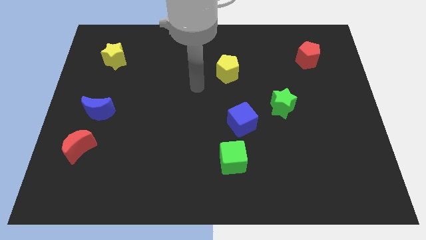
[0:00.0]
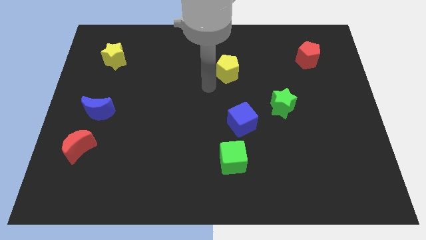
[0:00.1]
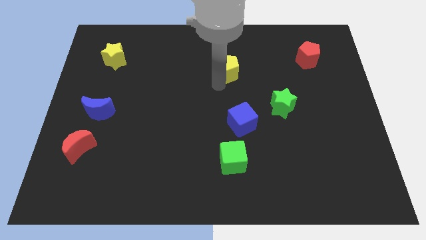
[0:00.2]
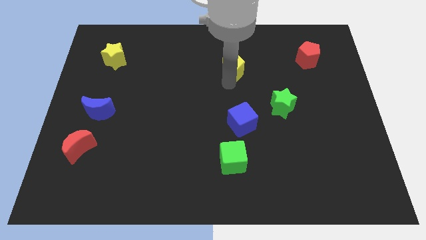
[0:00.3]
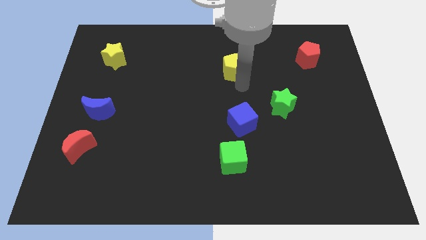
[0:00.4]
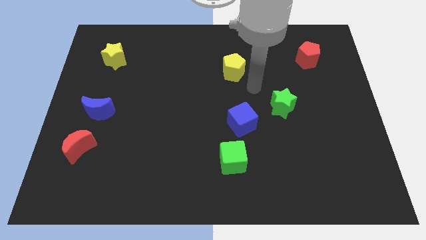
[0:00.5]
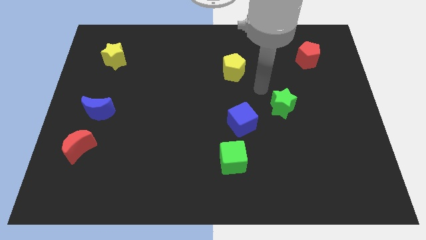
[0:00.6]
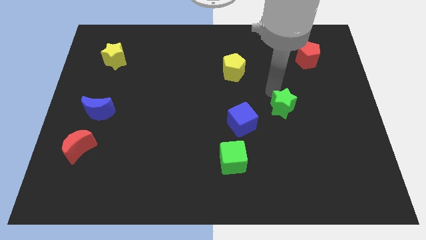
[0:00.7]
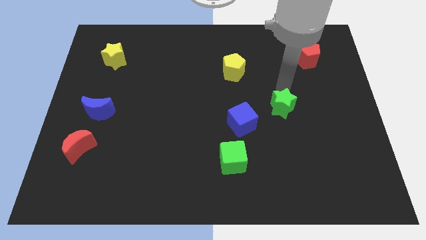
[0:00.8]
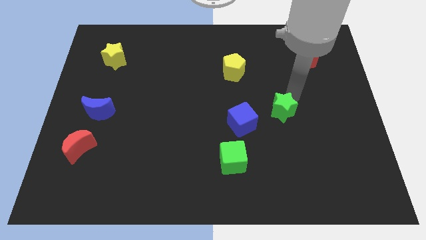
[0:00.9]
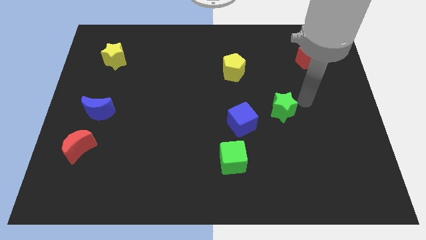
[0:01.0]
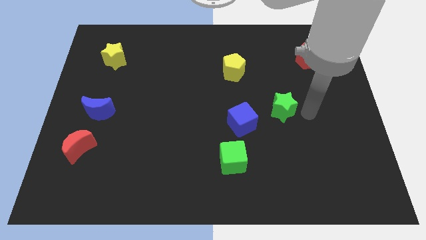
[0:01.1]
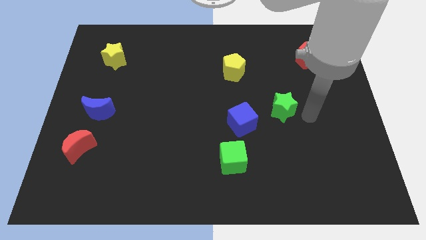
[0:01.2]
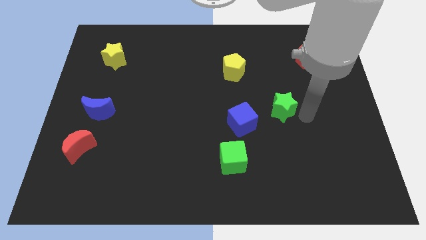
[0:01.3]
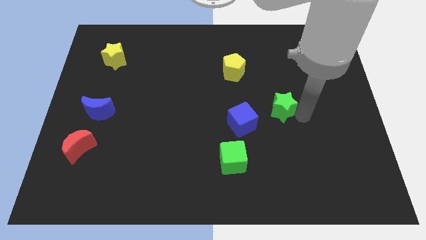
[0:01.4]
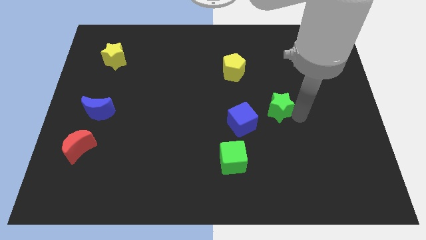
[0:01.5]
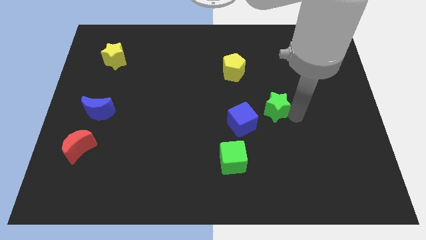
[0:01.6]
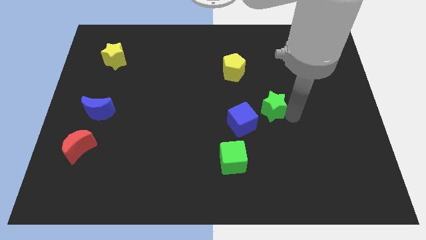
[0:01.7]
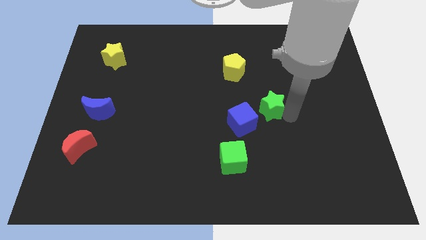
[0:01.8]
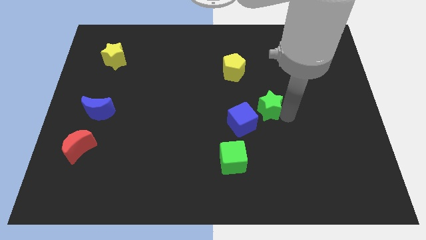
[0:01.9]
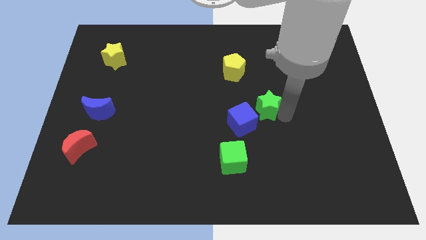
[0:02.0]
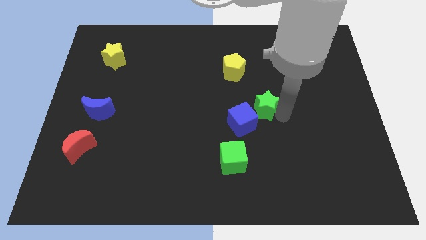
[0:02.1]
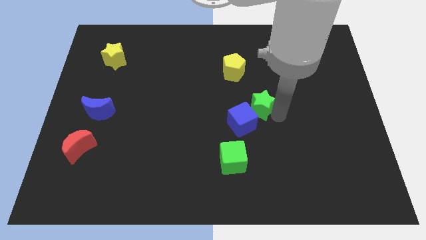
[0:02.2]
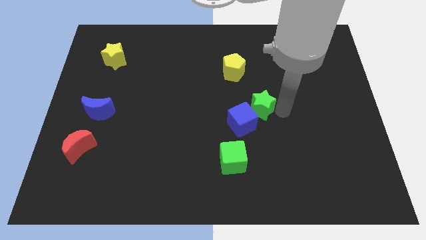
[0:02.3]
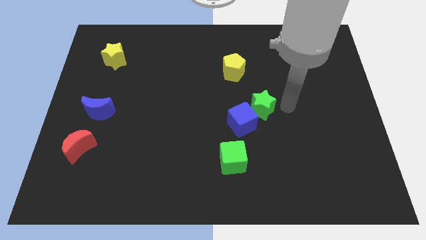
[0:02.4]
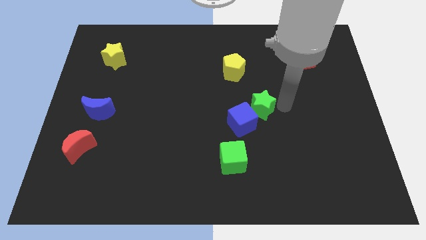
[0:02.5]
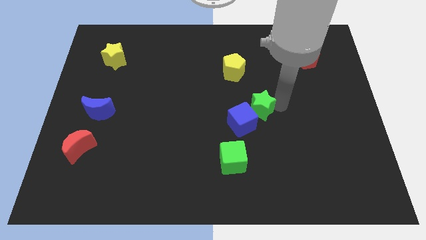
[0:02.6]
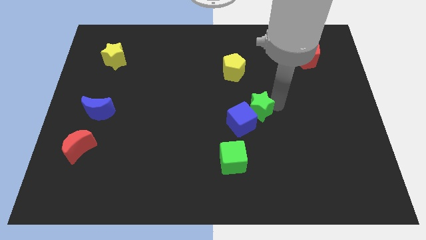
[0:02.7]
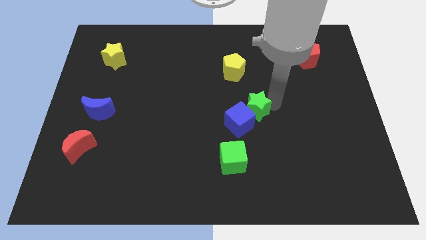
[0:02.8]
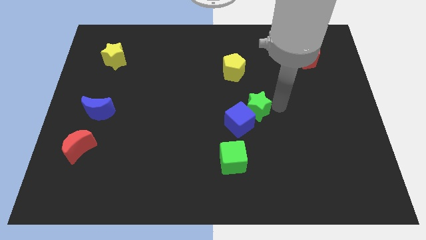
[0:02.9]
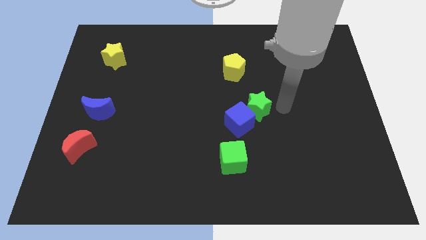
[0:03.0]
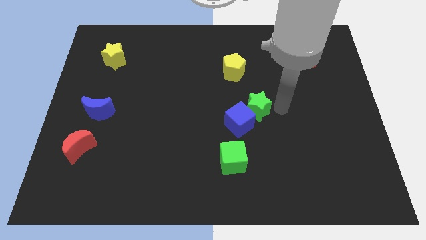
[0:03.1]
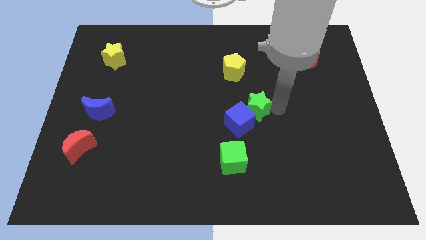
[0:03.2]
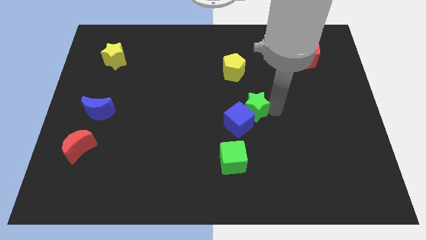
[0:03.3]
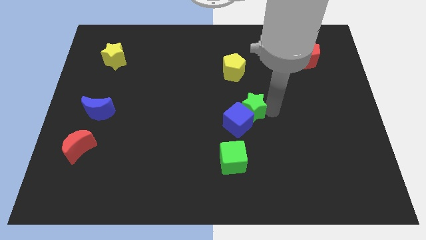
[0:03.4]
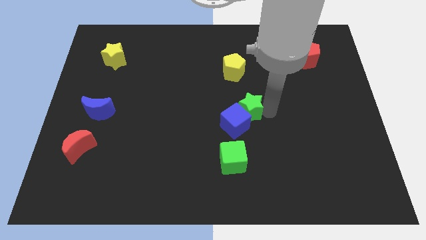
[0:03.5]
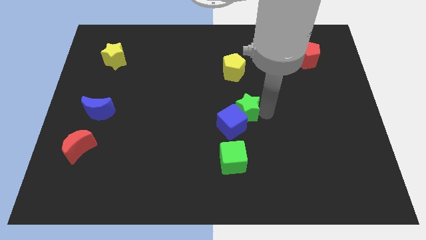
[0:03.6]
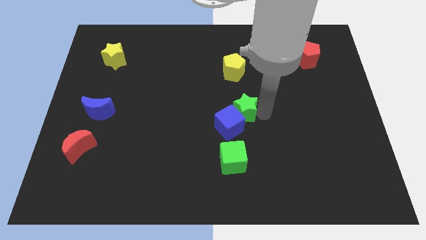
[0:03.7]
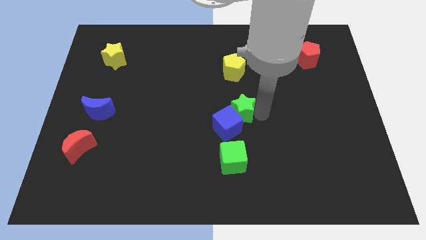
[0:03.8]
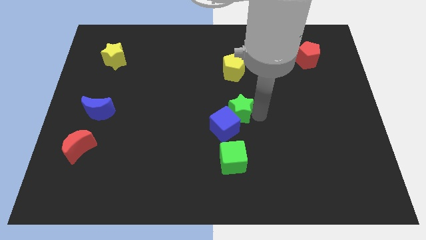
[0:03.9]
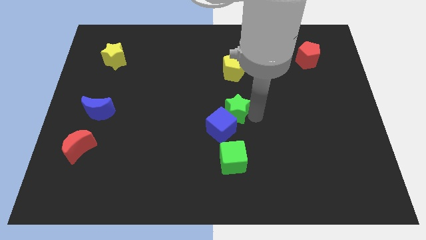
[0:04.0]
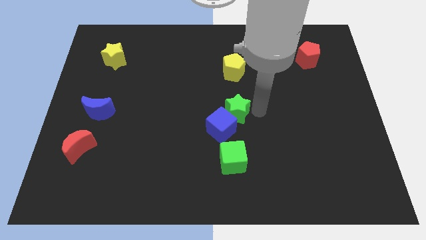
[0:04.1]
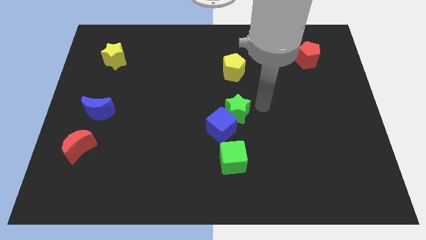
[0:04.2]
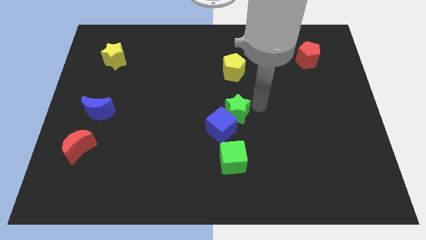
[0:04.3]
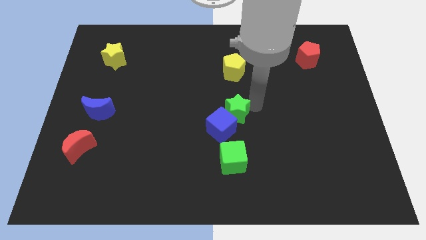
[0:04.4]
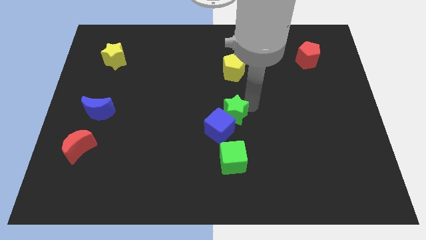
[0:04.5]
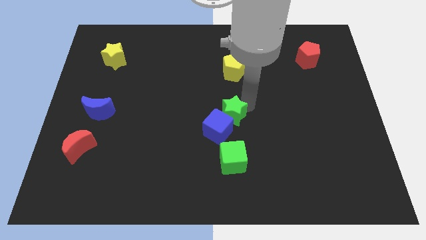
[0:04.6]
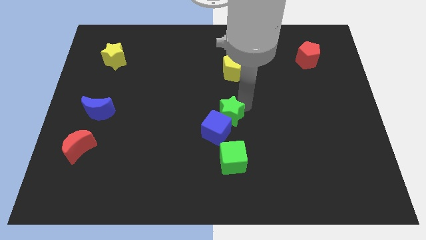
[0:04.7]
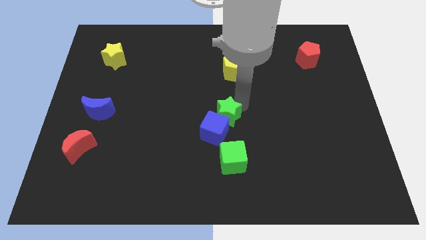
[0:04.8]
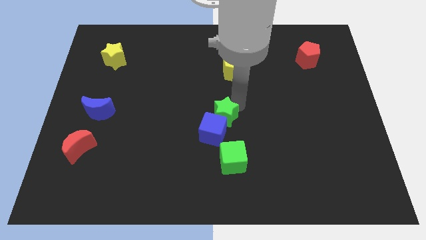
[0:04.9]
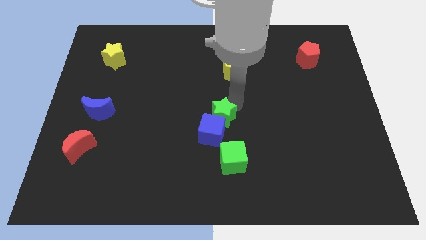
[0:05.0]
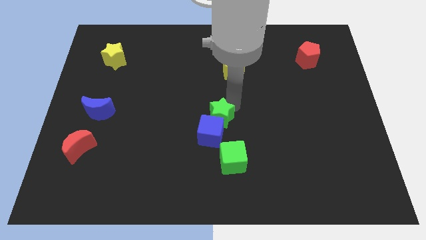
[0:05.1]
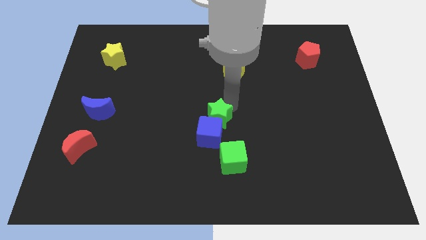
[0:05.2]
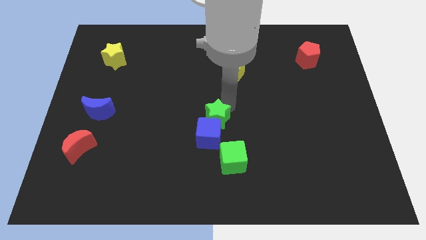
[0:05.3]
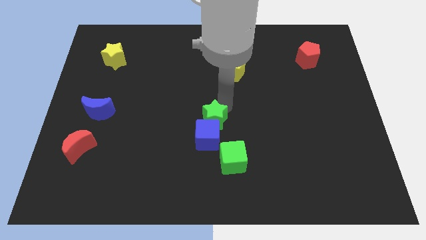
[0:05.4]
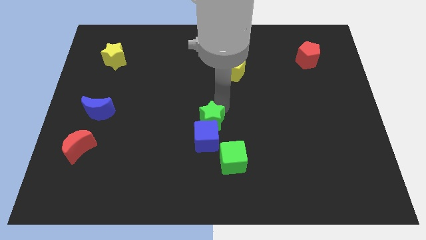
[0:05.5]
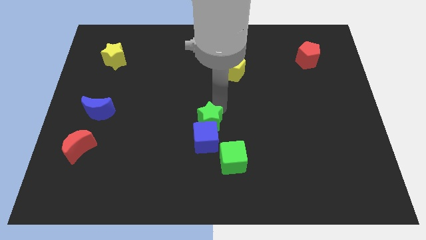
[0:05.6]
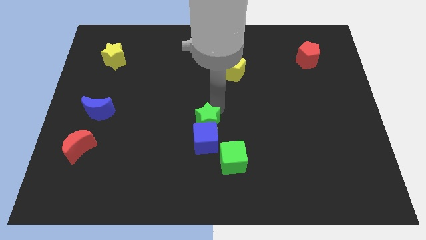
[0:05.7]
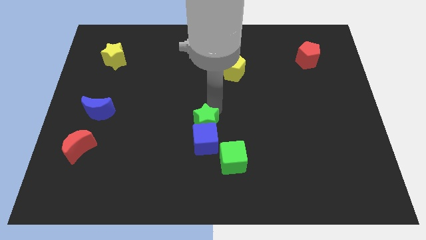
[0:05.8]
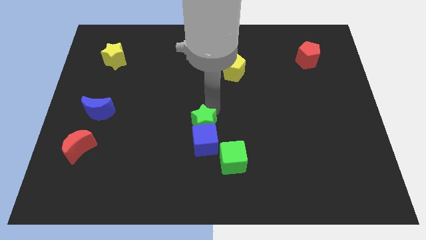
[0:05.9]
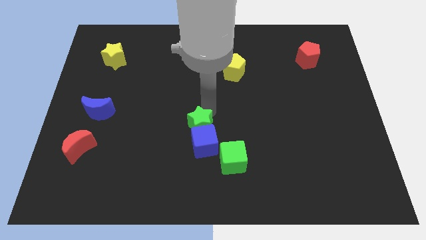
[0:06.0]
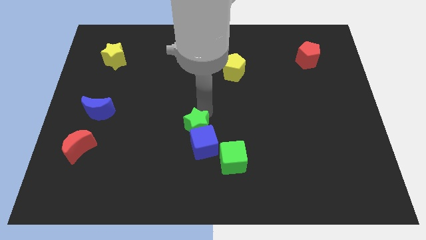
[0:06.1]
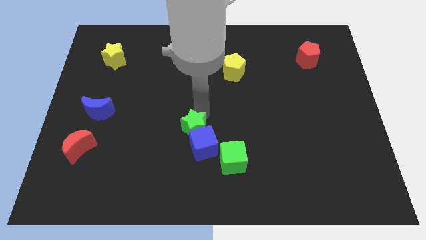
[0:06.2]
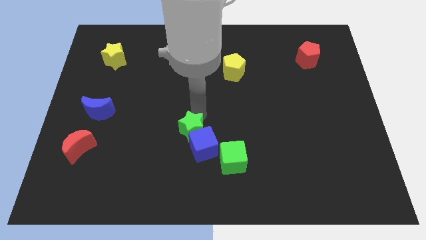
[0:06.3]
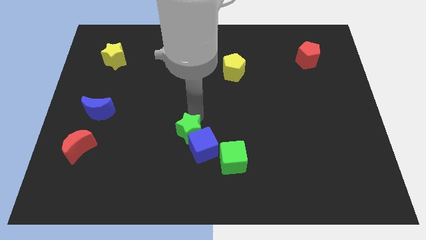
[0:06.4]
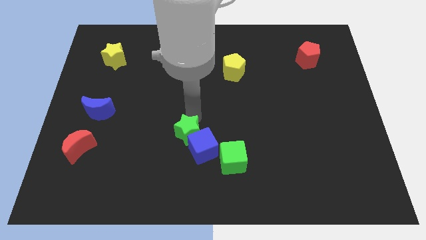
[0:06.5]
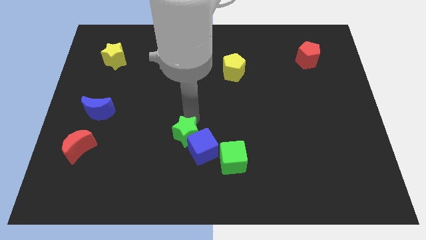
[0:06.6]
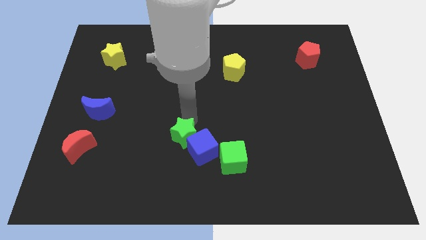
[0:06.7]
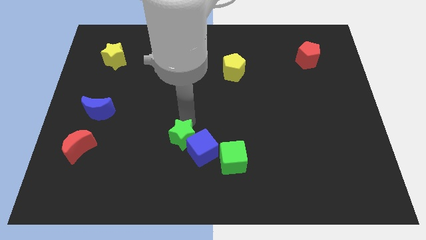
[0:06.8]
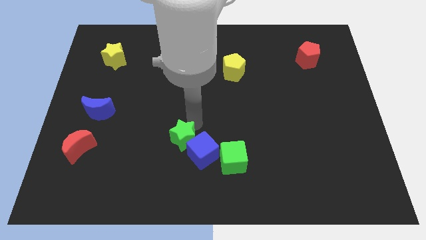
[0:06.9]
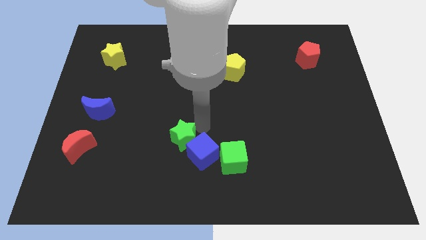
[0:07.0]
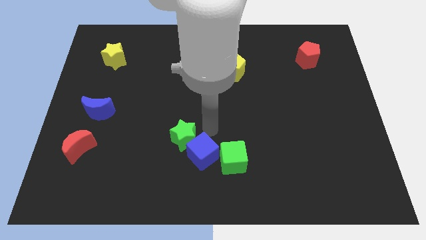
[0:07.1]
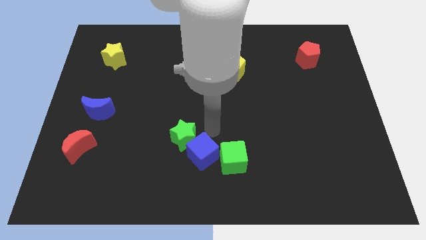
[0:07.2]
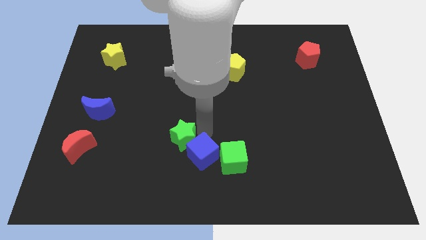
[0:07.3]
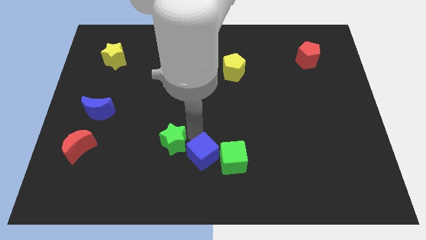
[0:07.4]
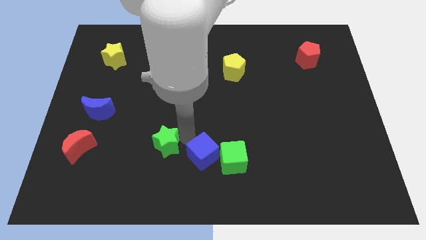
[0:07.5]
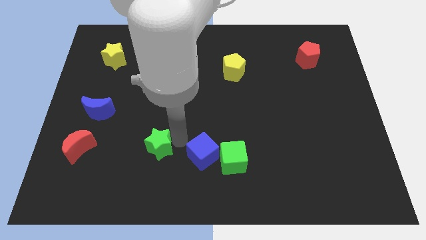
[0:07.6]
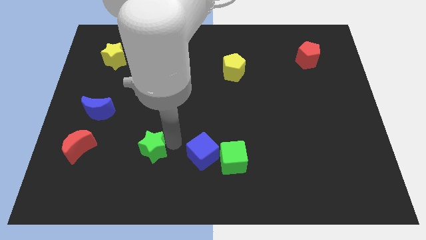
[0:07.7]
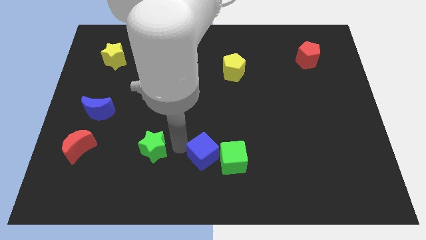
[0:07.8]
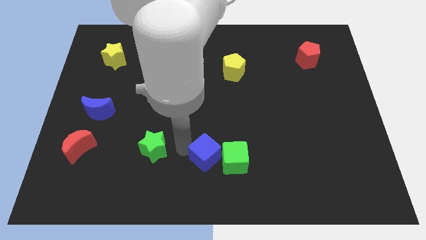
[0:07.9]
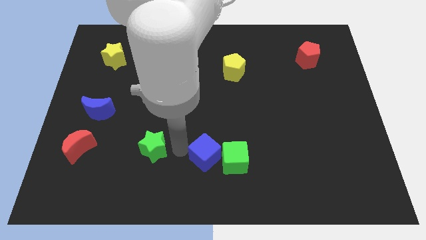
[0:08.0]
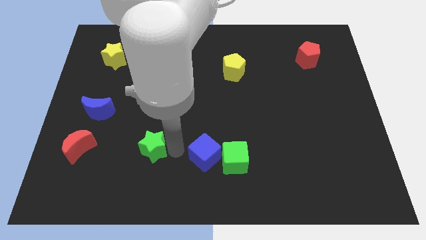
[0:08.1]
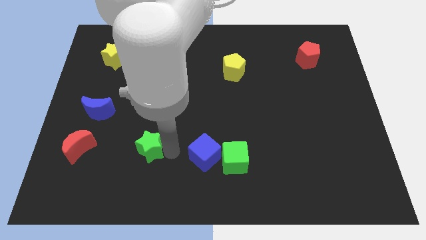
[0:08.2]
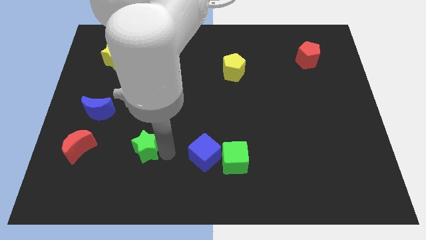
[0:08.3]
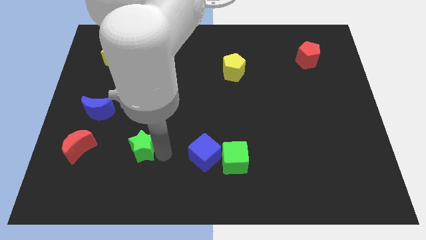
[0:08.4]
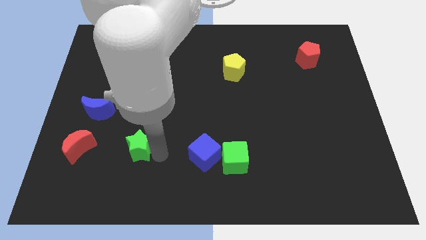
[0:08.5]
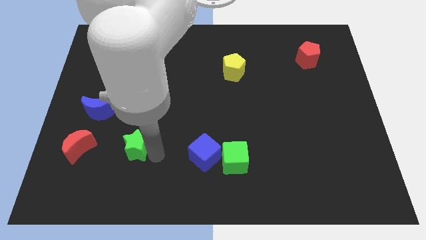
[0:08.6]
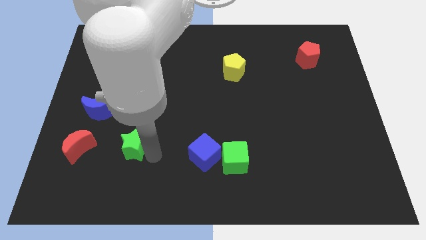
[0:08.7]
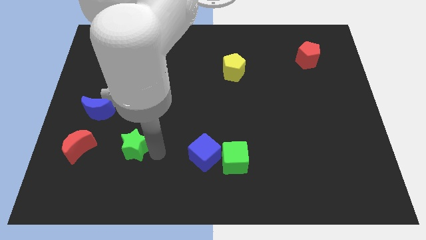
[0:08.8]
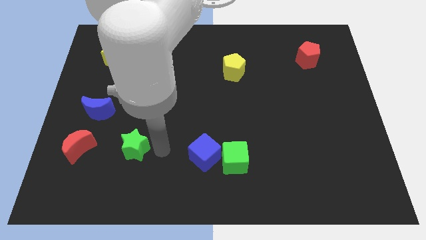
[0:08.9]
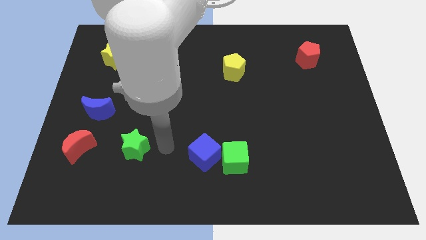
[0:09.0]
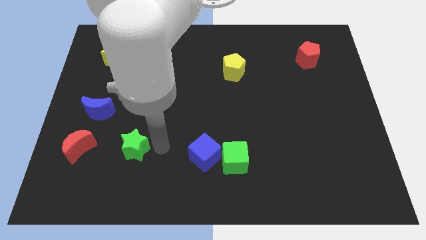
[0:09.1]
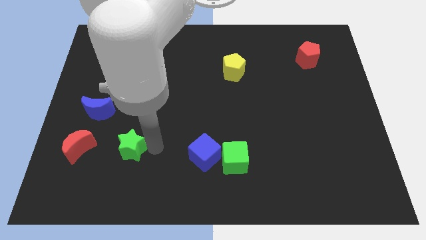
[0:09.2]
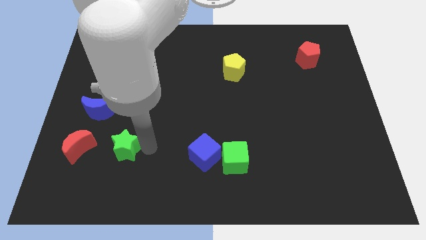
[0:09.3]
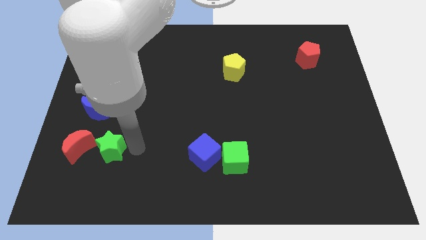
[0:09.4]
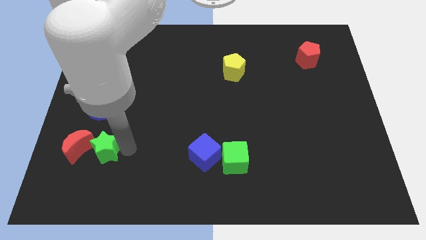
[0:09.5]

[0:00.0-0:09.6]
put the green star next to the red moon
